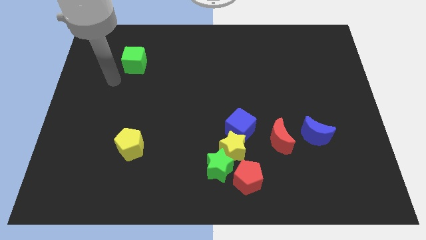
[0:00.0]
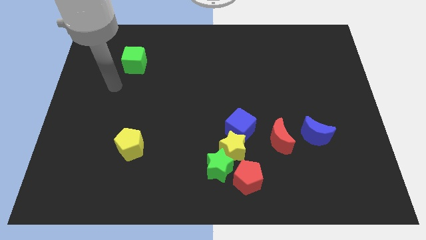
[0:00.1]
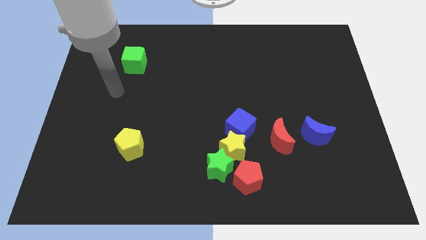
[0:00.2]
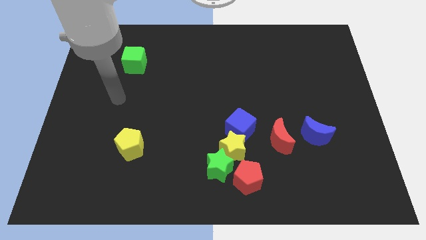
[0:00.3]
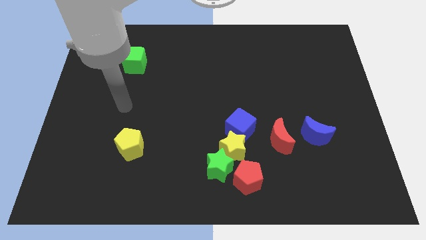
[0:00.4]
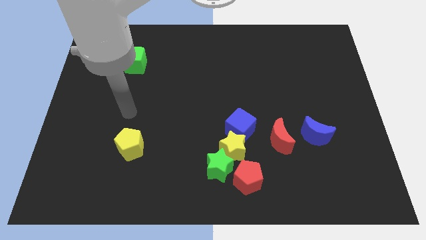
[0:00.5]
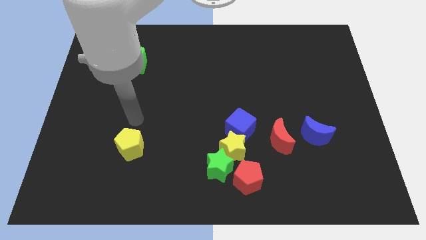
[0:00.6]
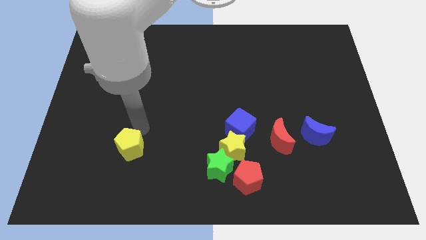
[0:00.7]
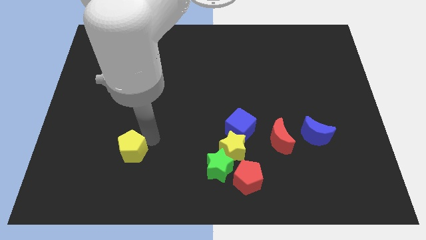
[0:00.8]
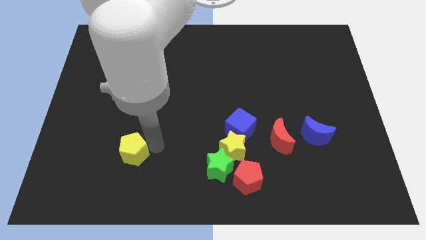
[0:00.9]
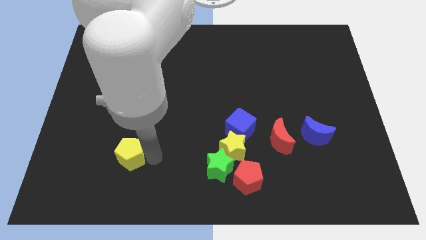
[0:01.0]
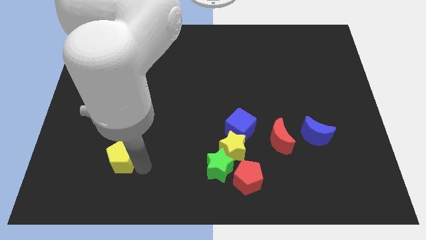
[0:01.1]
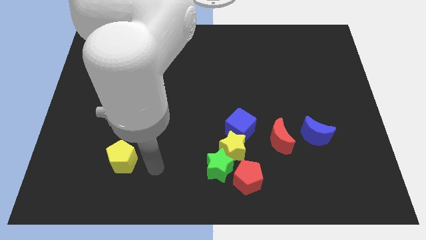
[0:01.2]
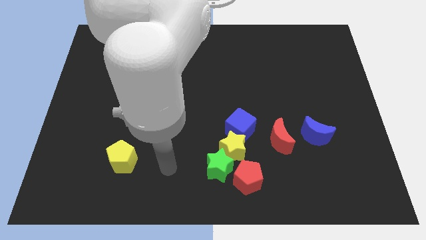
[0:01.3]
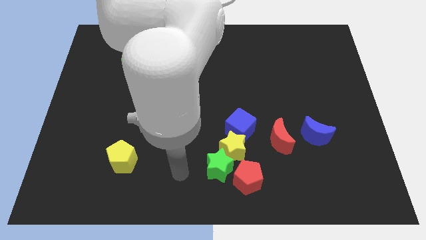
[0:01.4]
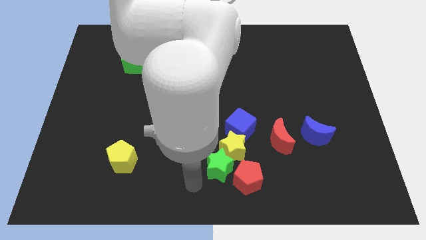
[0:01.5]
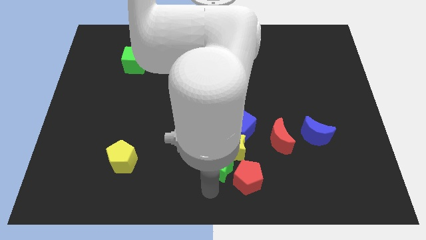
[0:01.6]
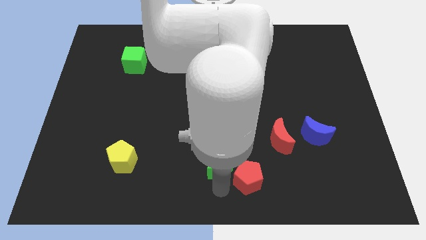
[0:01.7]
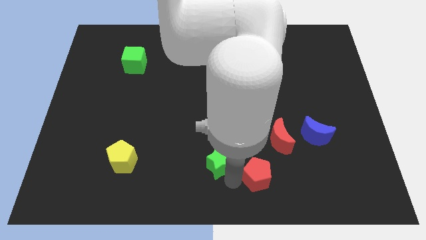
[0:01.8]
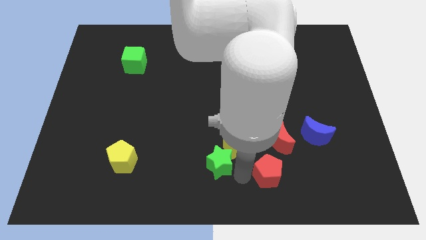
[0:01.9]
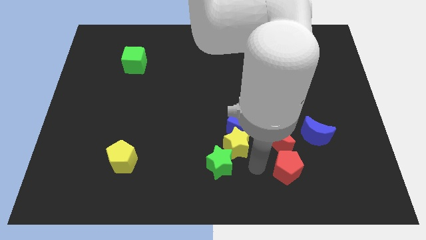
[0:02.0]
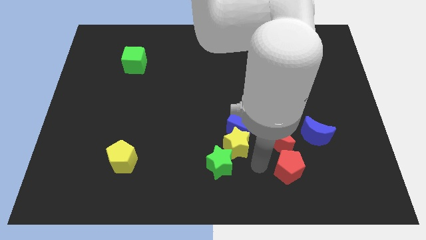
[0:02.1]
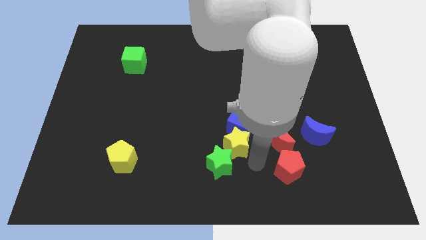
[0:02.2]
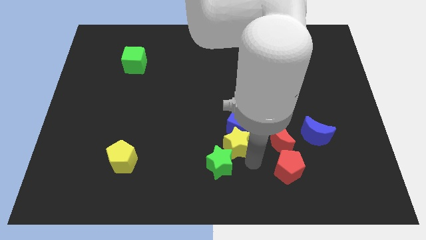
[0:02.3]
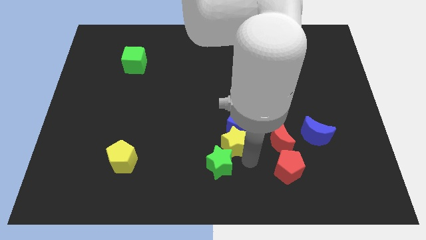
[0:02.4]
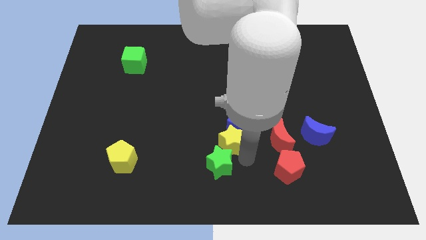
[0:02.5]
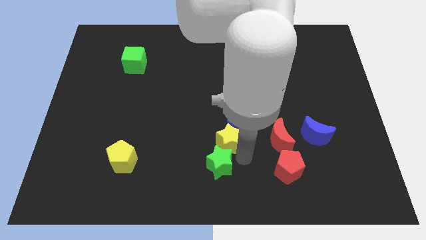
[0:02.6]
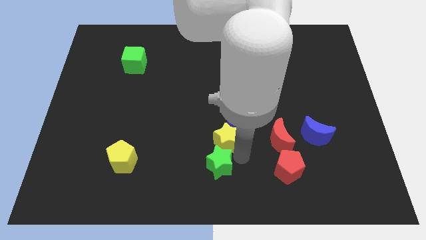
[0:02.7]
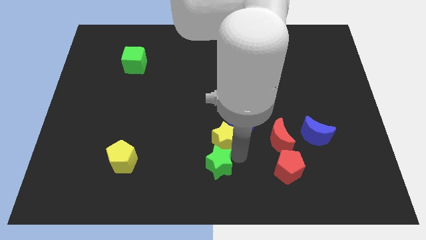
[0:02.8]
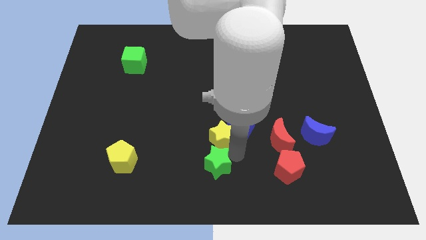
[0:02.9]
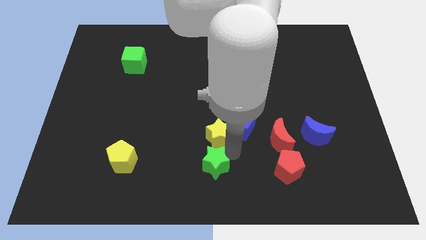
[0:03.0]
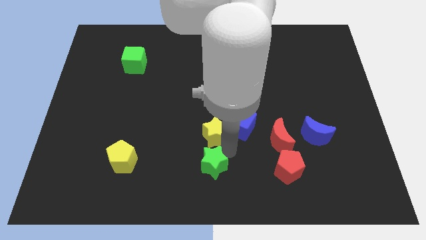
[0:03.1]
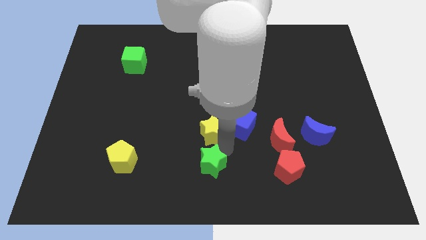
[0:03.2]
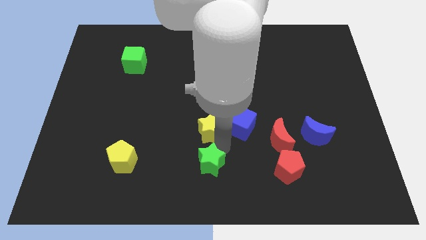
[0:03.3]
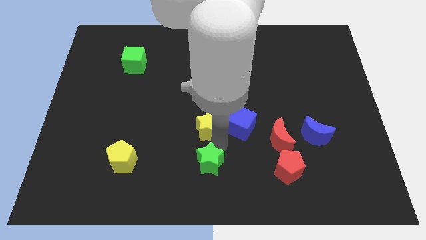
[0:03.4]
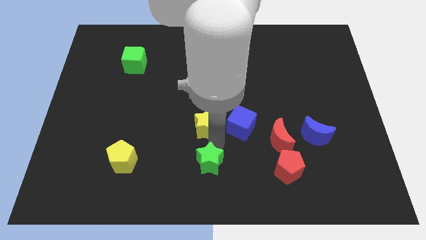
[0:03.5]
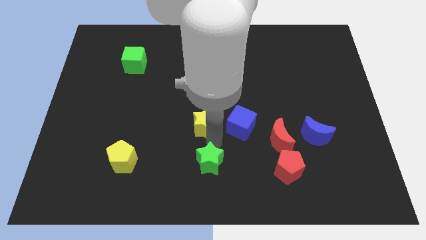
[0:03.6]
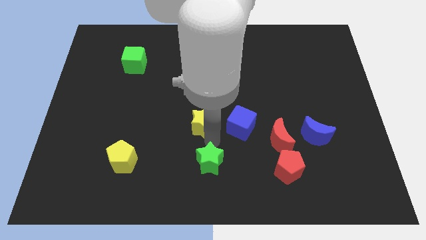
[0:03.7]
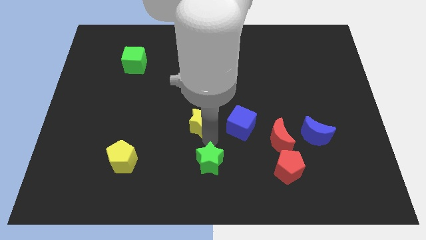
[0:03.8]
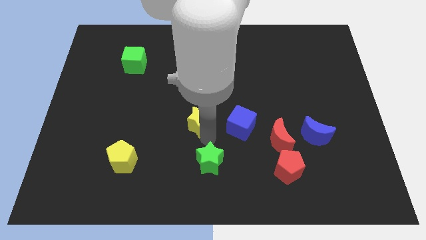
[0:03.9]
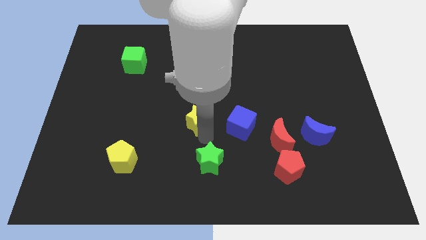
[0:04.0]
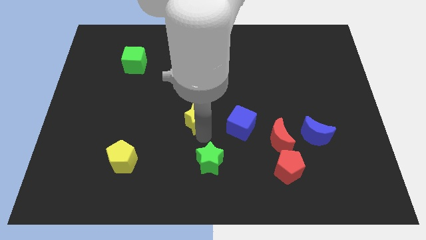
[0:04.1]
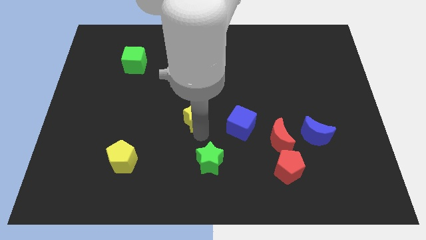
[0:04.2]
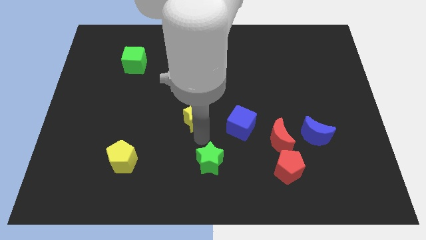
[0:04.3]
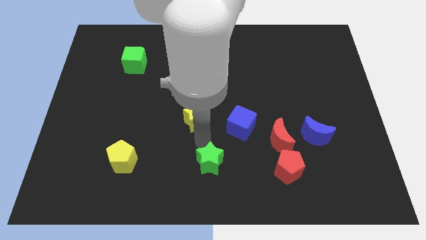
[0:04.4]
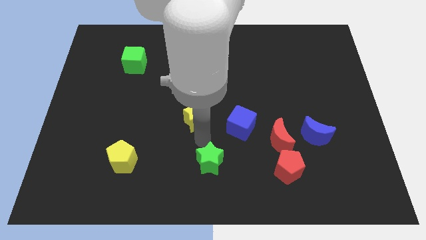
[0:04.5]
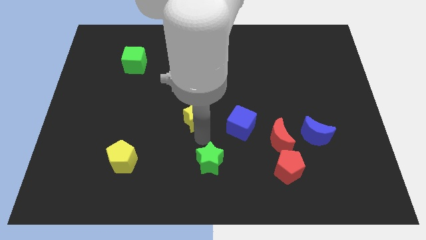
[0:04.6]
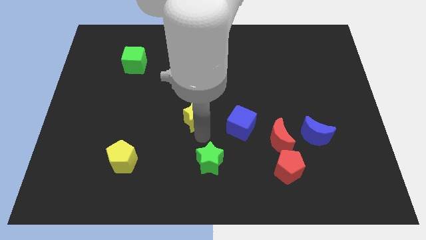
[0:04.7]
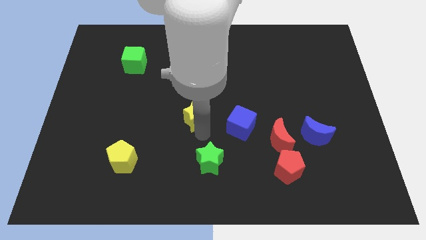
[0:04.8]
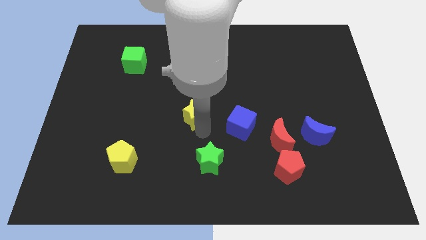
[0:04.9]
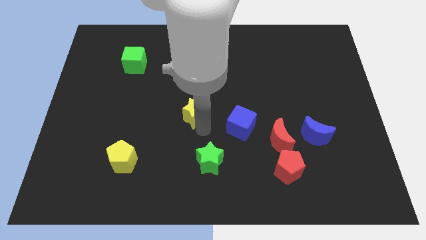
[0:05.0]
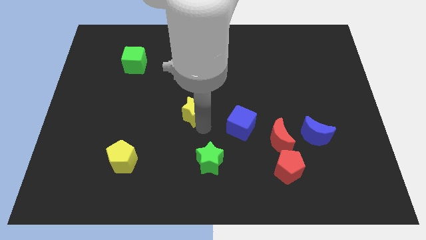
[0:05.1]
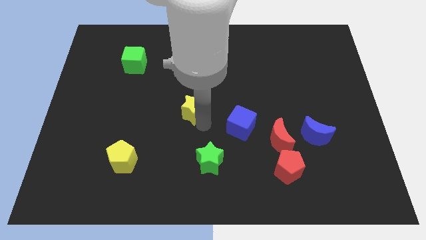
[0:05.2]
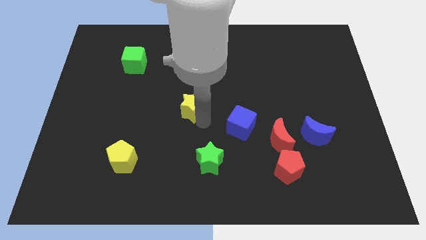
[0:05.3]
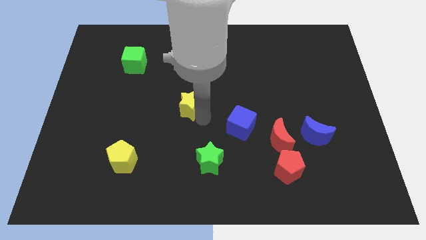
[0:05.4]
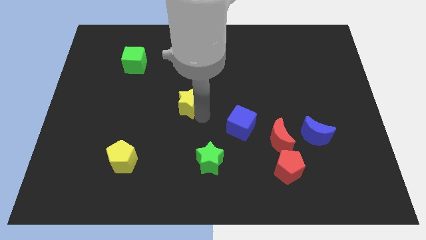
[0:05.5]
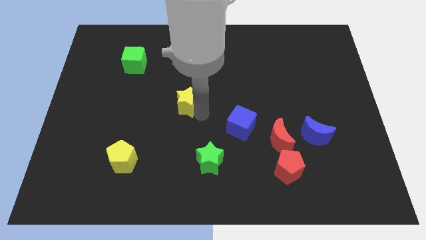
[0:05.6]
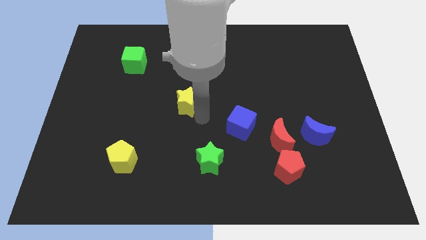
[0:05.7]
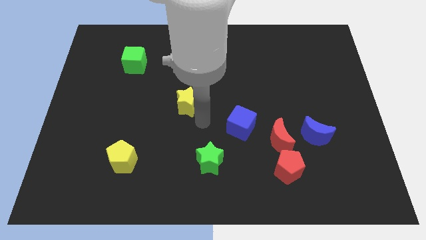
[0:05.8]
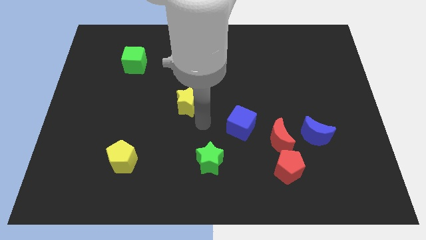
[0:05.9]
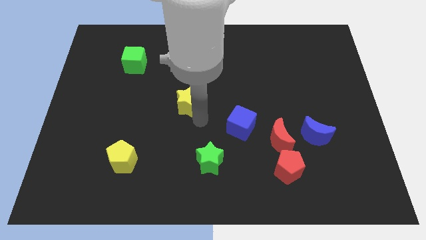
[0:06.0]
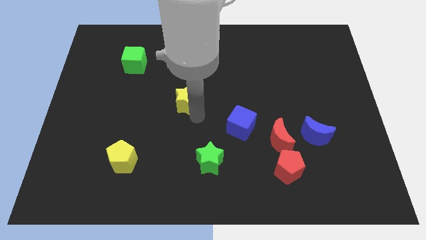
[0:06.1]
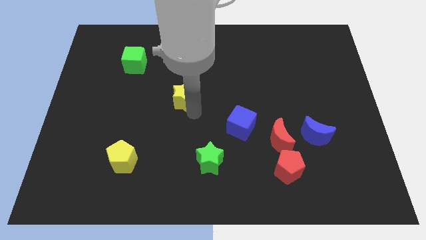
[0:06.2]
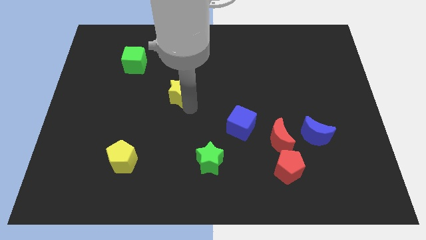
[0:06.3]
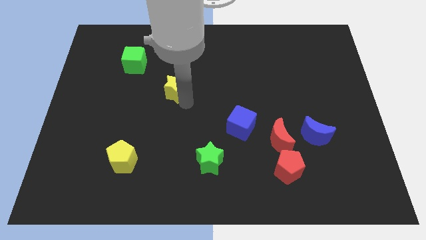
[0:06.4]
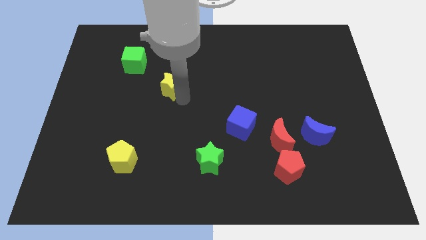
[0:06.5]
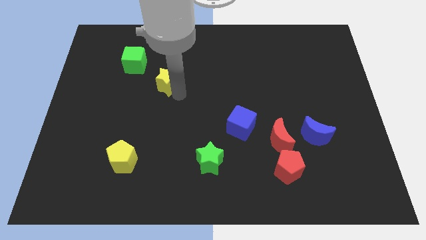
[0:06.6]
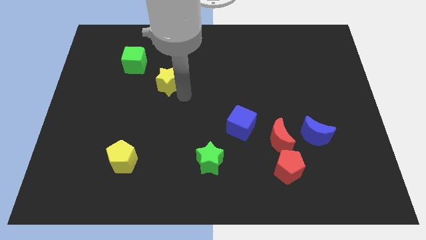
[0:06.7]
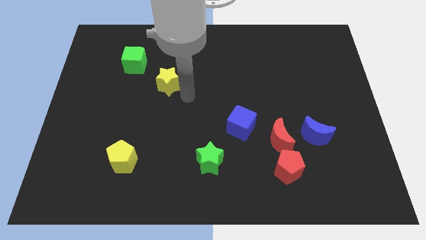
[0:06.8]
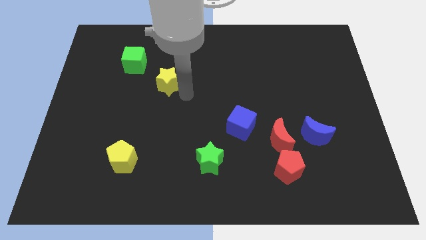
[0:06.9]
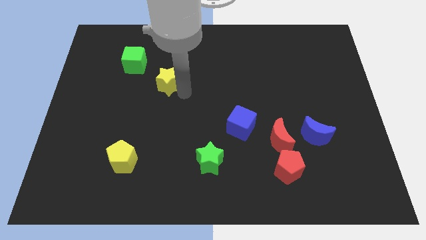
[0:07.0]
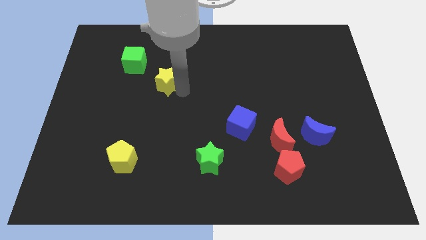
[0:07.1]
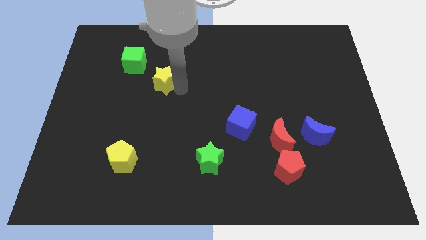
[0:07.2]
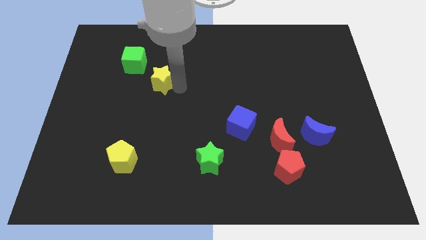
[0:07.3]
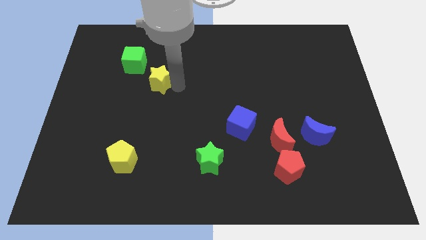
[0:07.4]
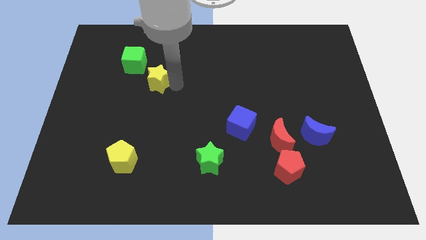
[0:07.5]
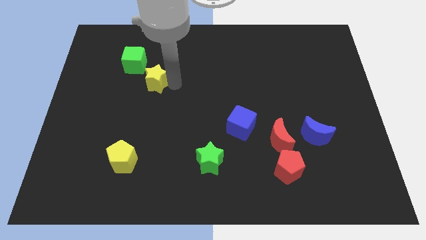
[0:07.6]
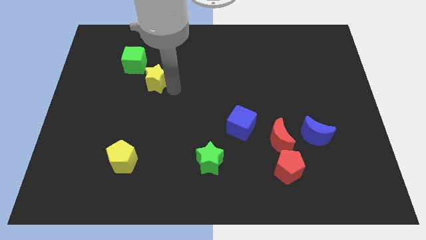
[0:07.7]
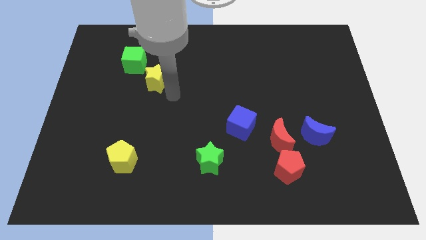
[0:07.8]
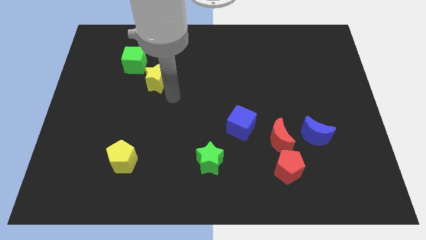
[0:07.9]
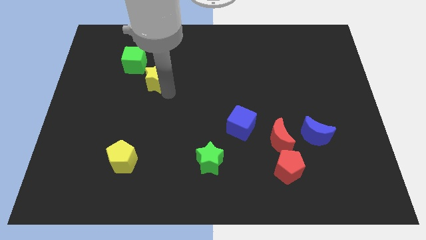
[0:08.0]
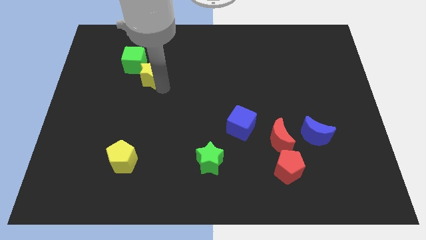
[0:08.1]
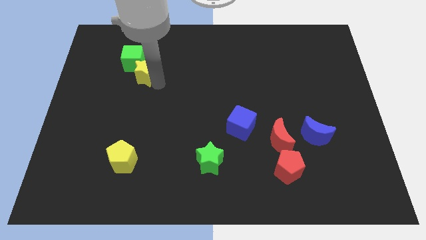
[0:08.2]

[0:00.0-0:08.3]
move the yellow star to the green cube
